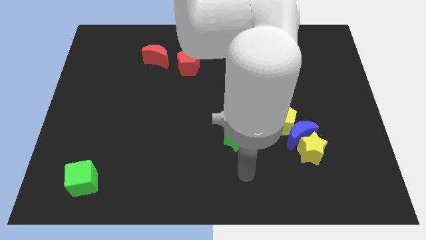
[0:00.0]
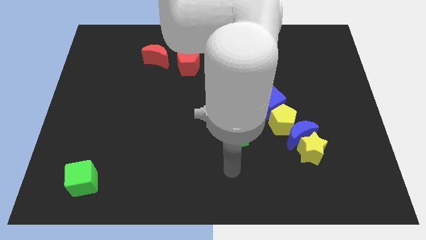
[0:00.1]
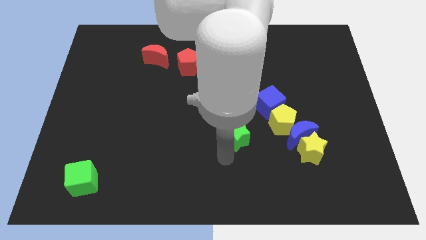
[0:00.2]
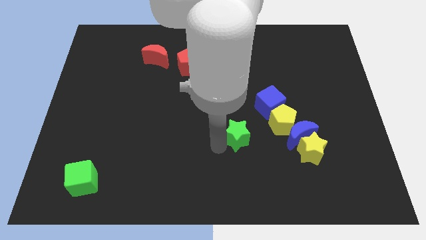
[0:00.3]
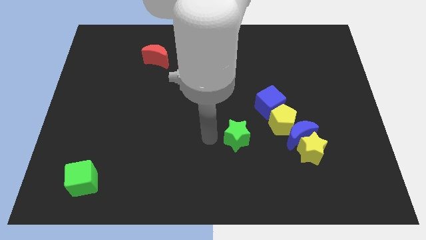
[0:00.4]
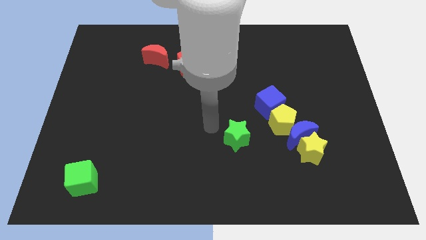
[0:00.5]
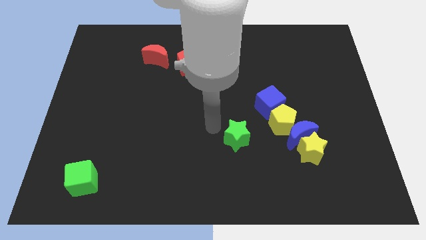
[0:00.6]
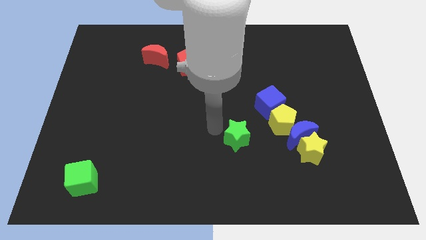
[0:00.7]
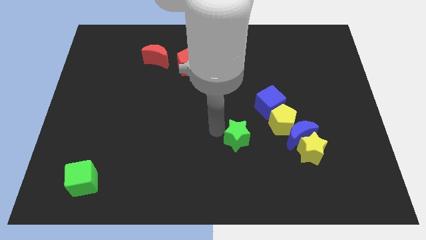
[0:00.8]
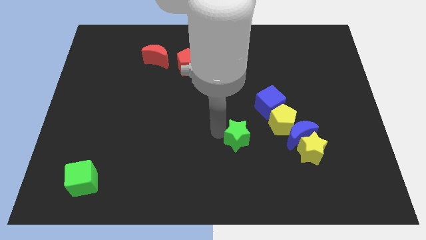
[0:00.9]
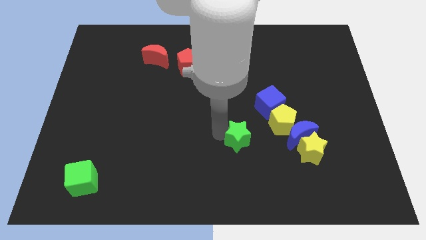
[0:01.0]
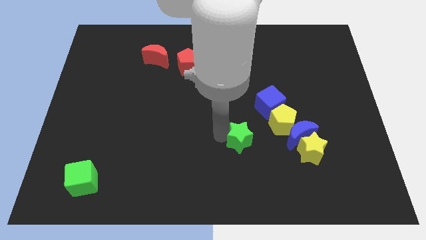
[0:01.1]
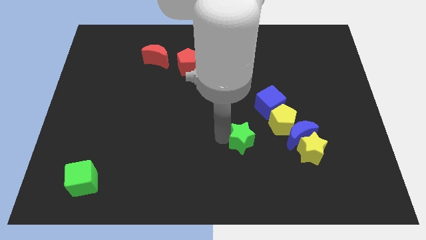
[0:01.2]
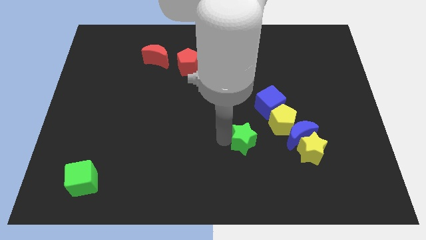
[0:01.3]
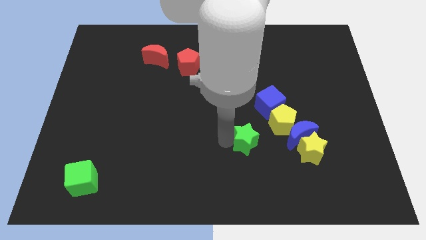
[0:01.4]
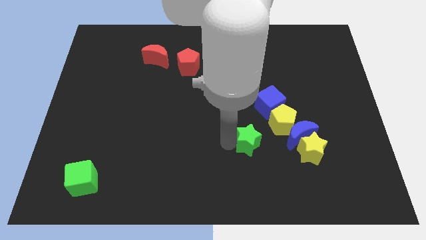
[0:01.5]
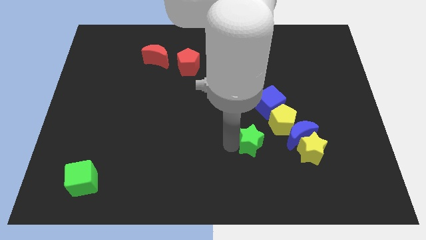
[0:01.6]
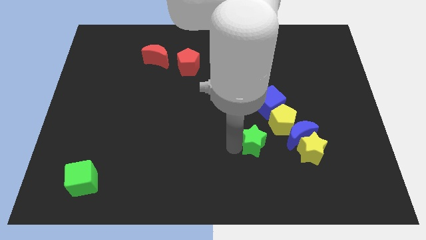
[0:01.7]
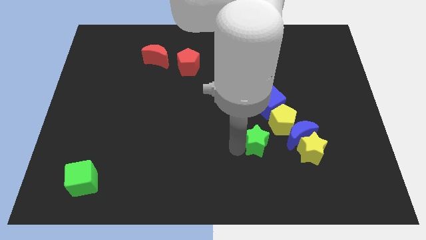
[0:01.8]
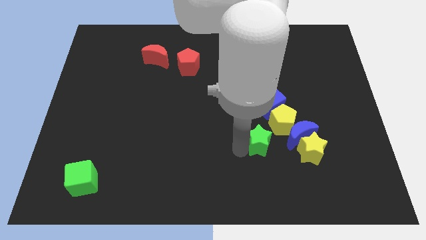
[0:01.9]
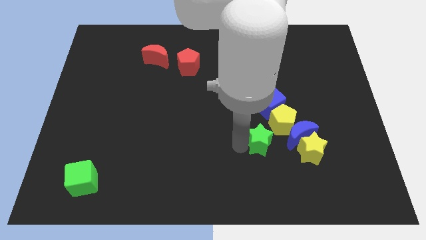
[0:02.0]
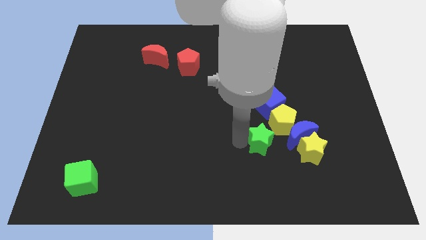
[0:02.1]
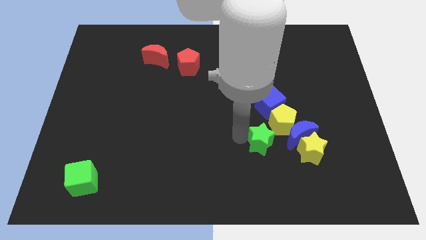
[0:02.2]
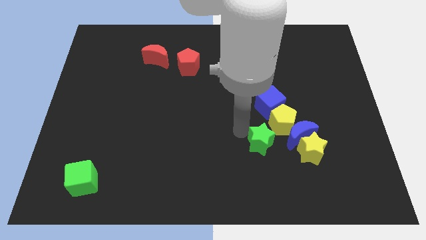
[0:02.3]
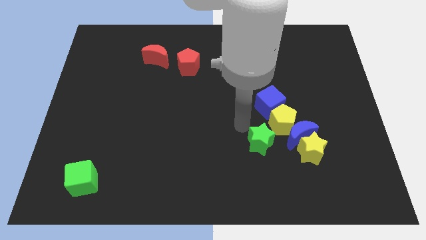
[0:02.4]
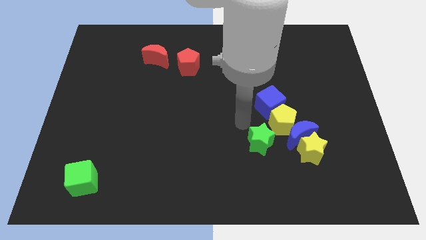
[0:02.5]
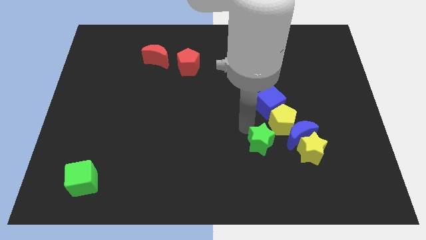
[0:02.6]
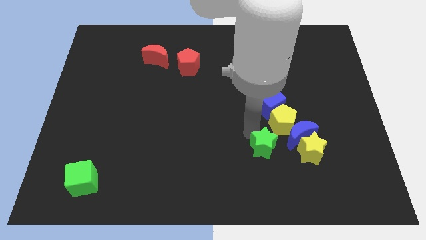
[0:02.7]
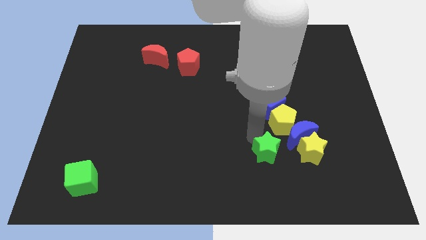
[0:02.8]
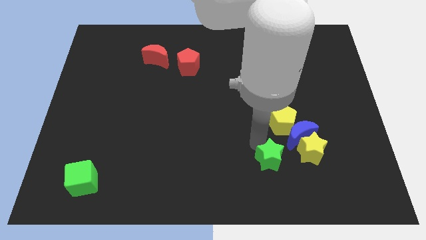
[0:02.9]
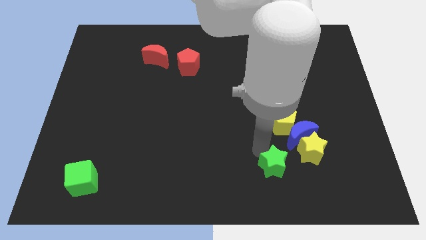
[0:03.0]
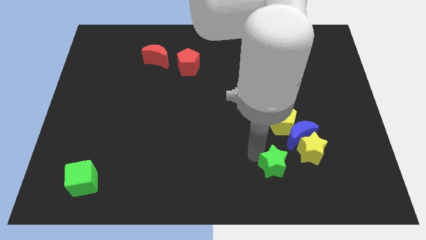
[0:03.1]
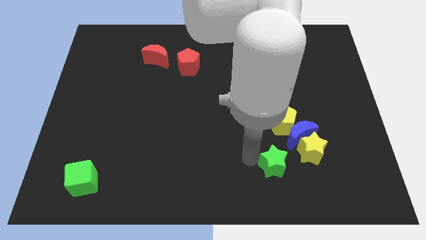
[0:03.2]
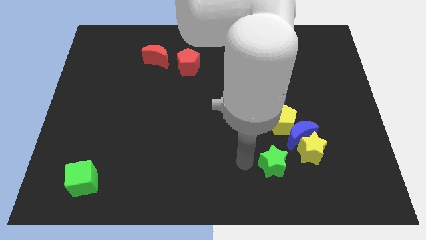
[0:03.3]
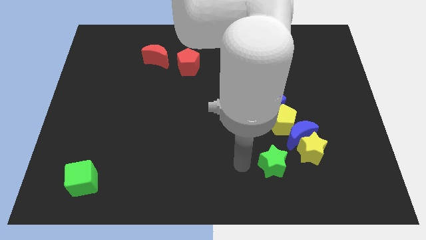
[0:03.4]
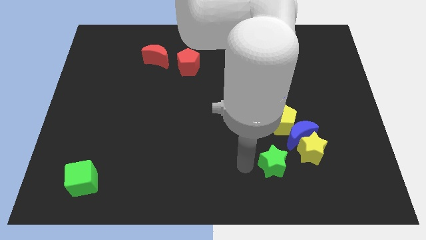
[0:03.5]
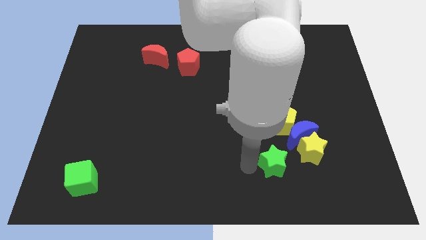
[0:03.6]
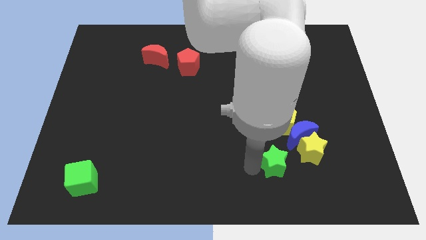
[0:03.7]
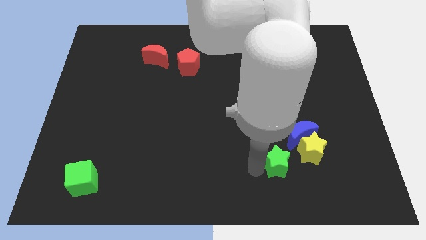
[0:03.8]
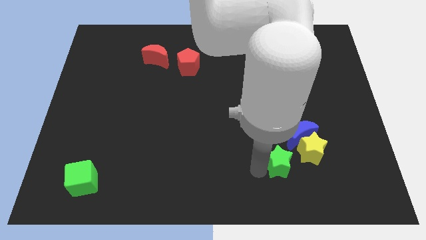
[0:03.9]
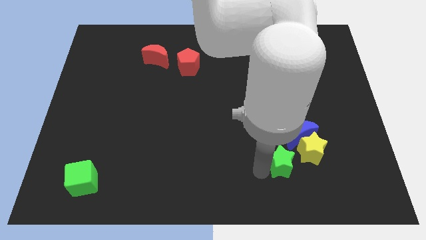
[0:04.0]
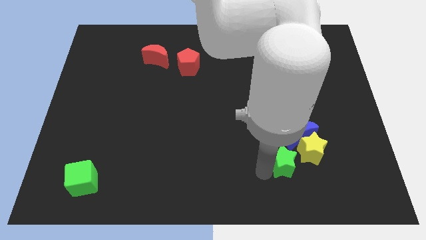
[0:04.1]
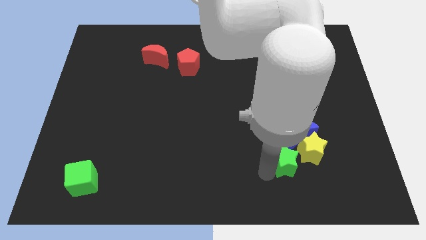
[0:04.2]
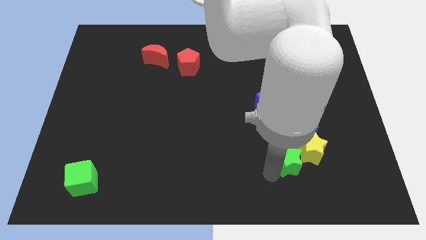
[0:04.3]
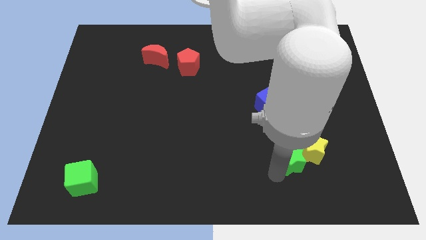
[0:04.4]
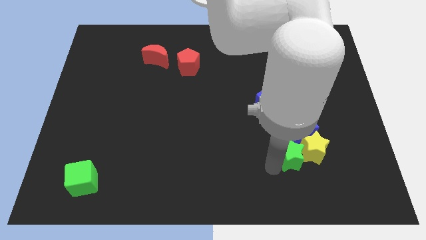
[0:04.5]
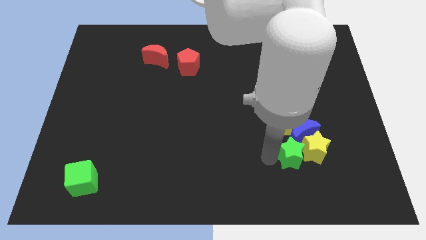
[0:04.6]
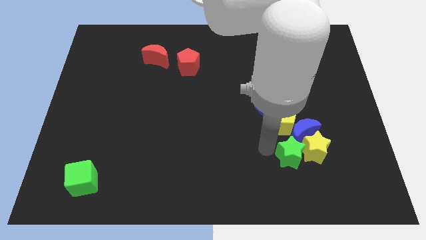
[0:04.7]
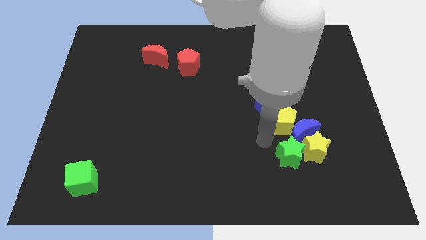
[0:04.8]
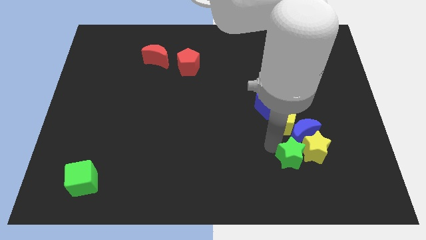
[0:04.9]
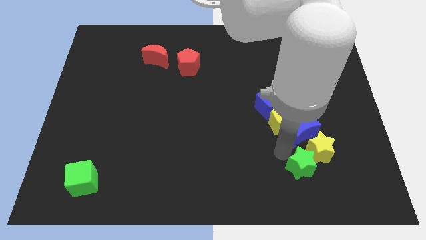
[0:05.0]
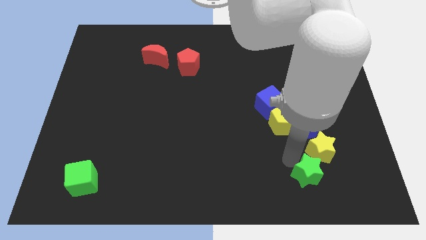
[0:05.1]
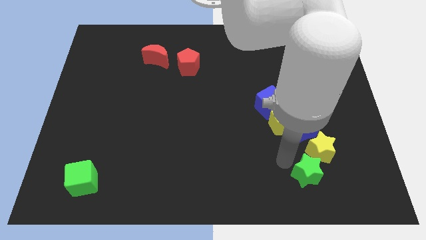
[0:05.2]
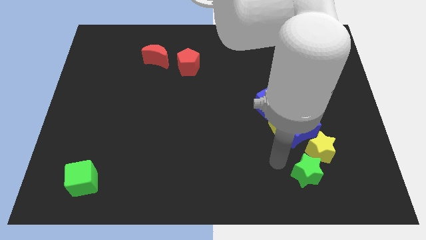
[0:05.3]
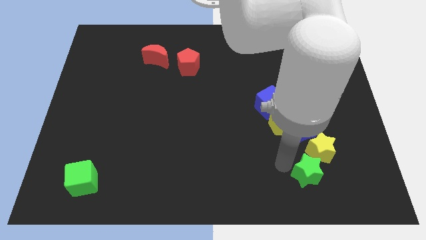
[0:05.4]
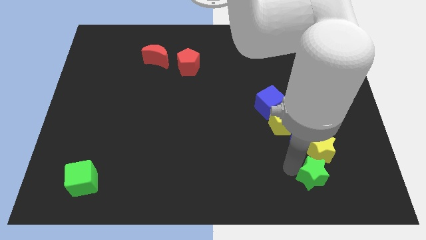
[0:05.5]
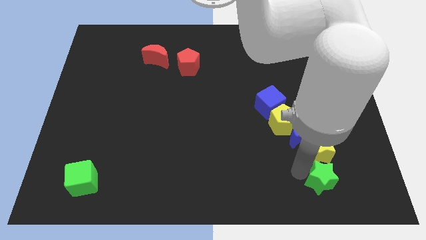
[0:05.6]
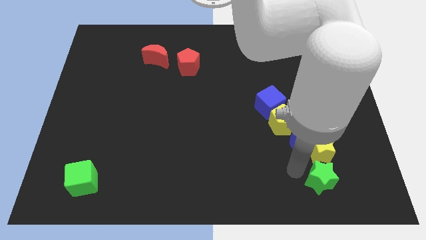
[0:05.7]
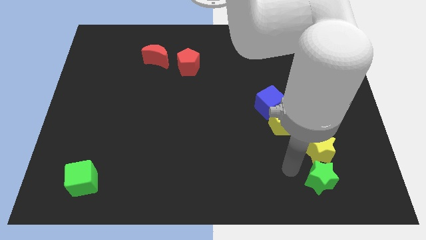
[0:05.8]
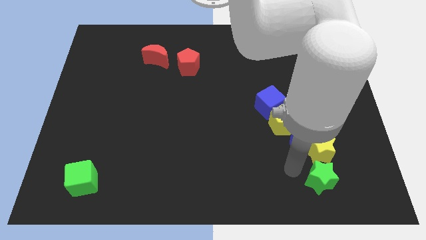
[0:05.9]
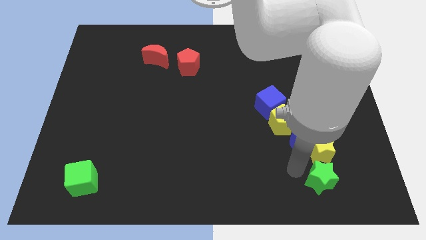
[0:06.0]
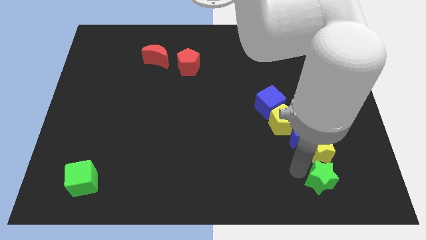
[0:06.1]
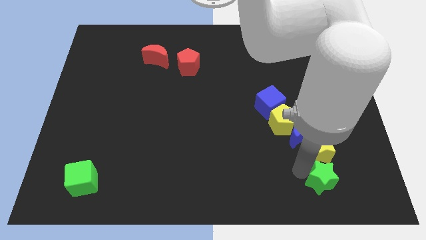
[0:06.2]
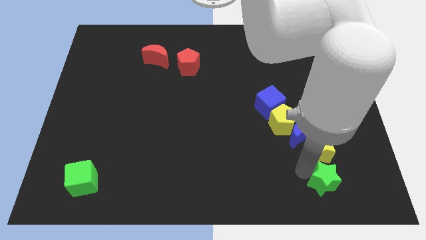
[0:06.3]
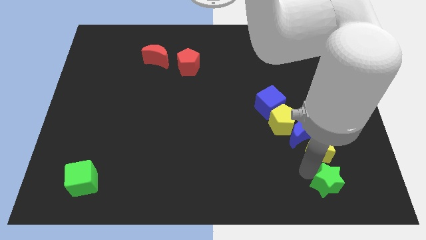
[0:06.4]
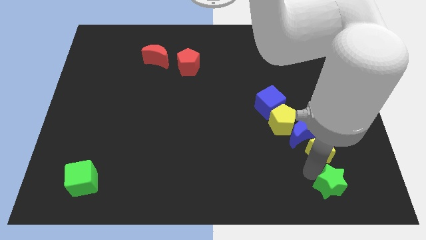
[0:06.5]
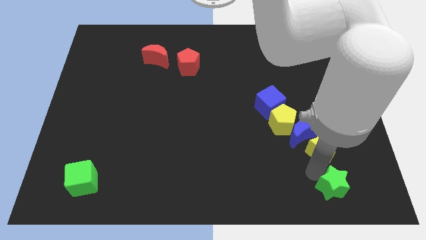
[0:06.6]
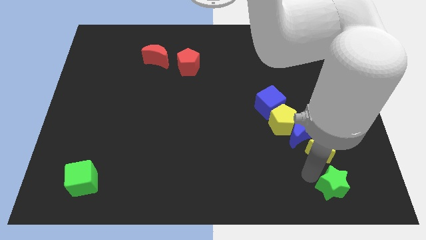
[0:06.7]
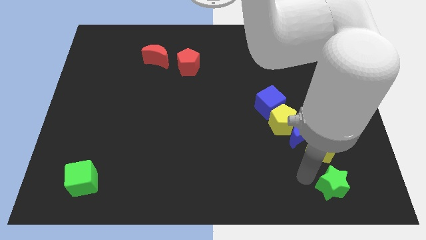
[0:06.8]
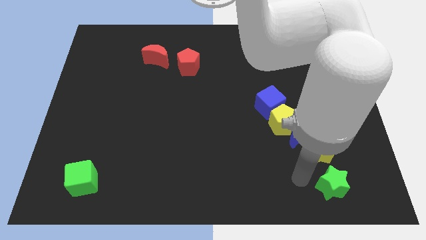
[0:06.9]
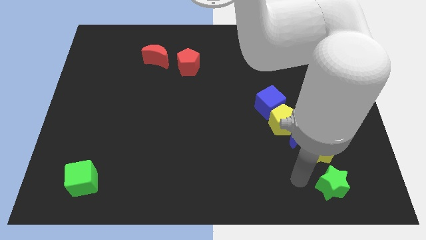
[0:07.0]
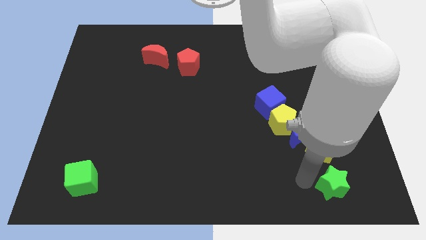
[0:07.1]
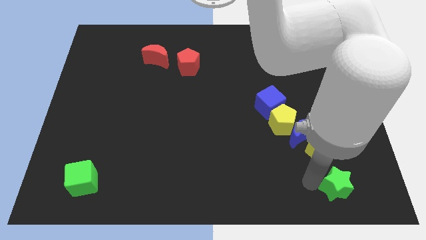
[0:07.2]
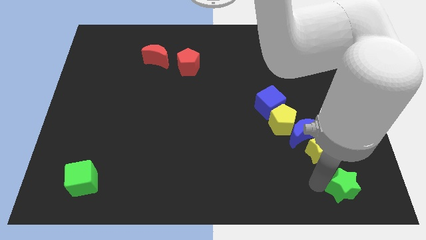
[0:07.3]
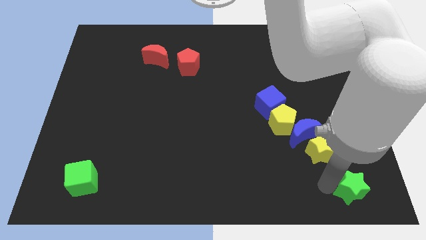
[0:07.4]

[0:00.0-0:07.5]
slide the green star to the bottom right of the board
